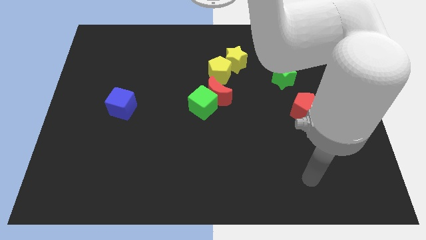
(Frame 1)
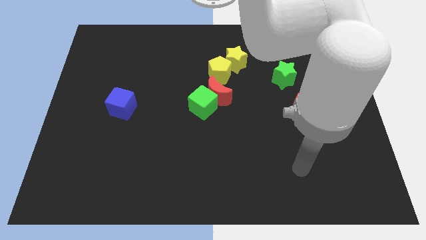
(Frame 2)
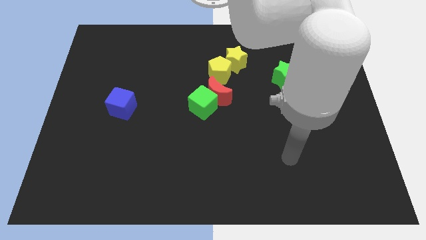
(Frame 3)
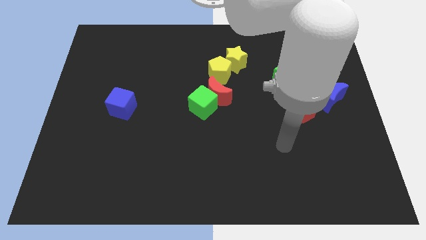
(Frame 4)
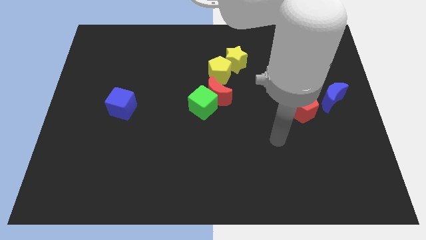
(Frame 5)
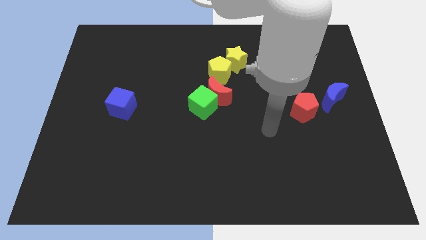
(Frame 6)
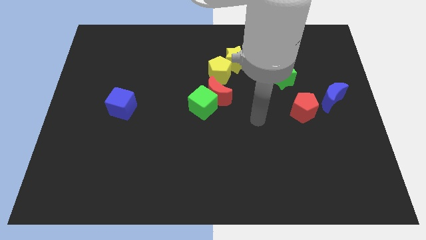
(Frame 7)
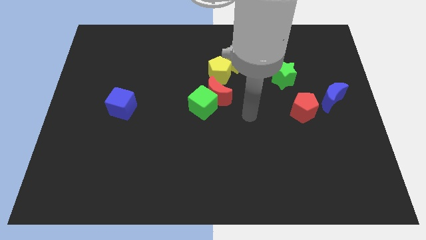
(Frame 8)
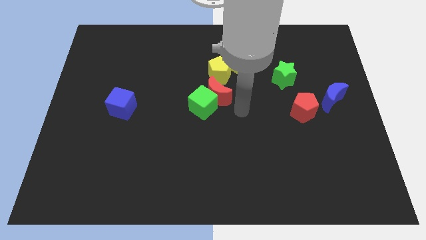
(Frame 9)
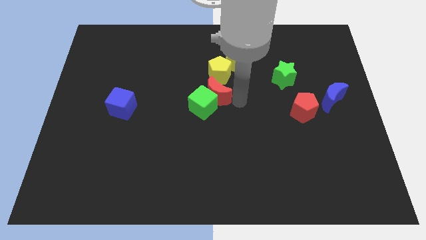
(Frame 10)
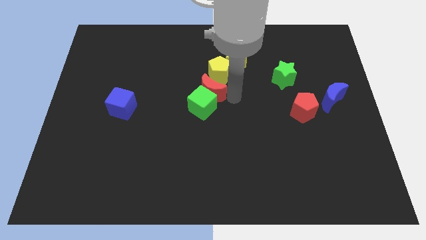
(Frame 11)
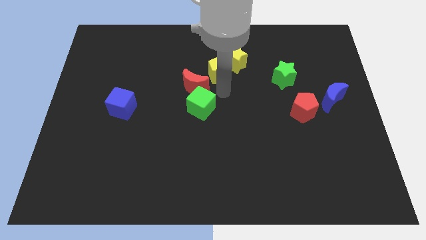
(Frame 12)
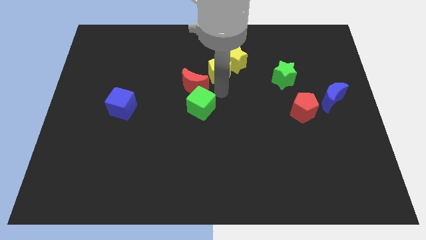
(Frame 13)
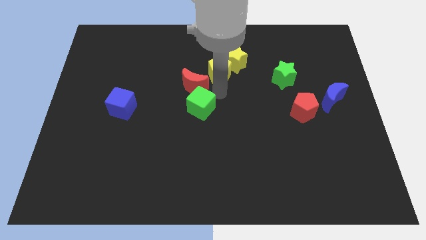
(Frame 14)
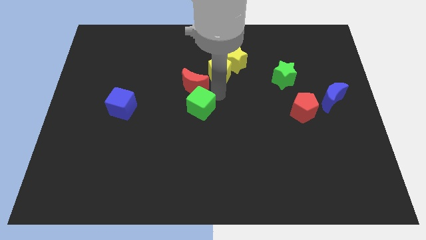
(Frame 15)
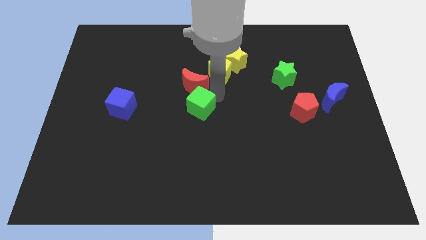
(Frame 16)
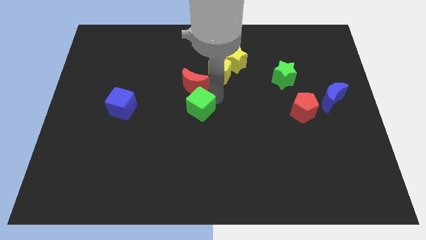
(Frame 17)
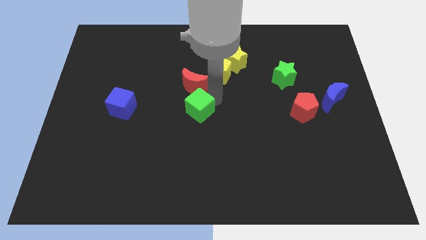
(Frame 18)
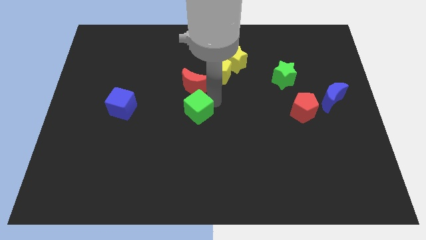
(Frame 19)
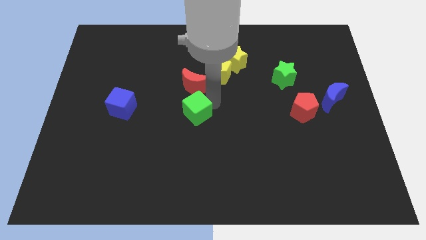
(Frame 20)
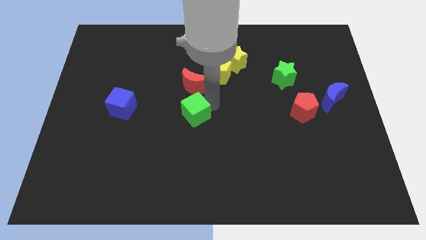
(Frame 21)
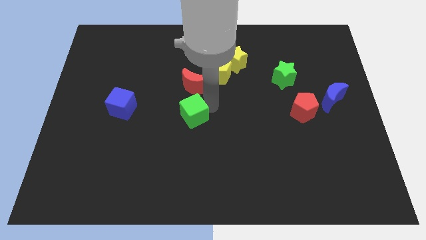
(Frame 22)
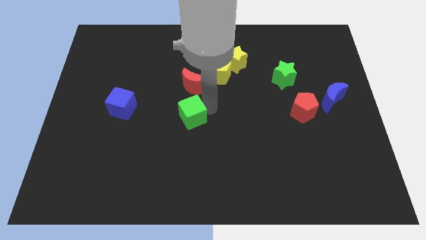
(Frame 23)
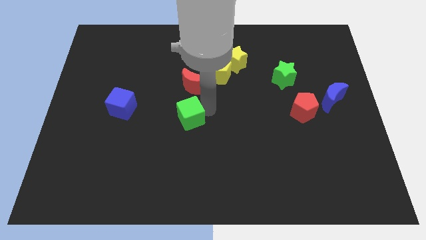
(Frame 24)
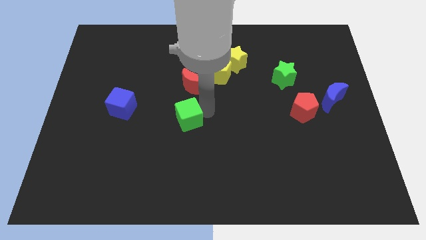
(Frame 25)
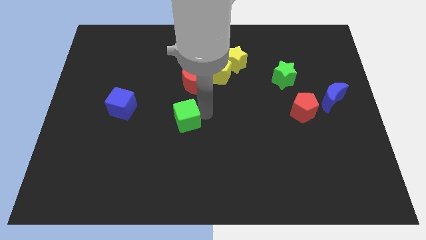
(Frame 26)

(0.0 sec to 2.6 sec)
move the green cube away from the red moon

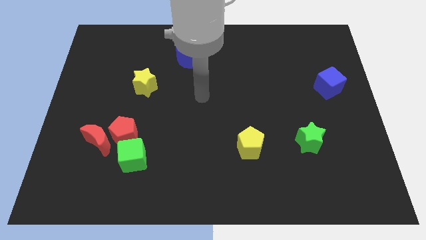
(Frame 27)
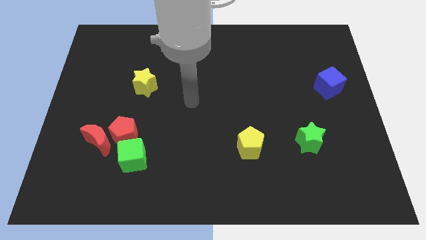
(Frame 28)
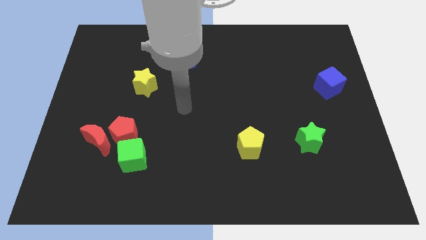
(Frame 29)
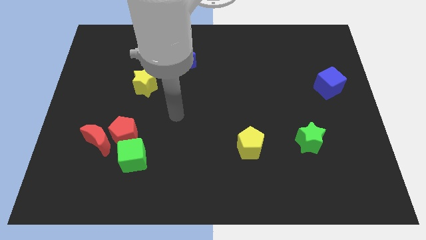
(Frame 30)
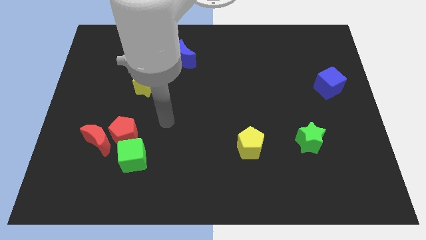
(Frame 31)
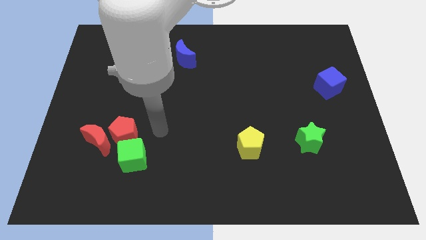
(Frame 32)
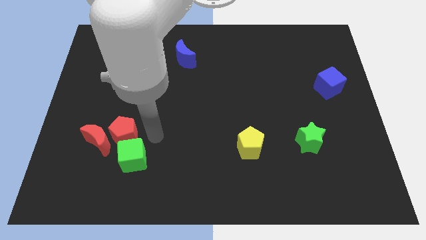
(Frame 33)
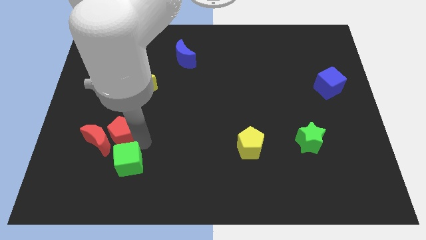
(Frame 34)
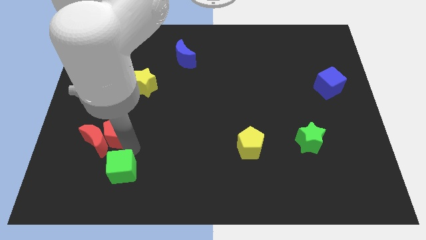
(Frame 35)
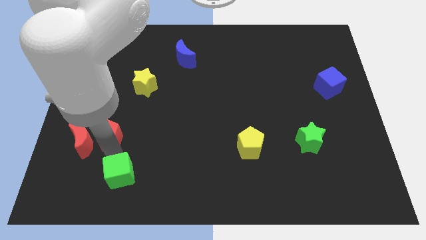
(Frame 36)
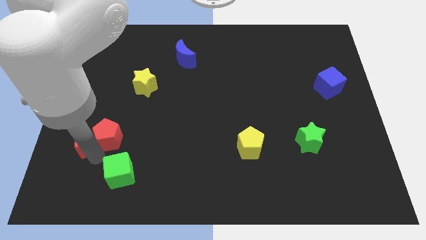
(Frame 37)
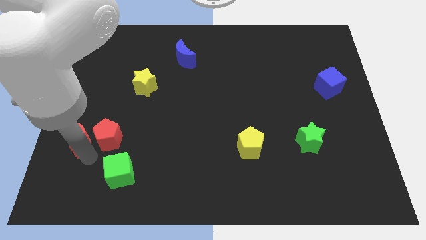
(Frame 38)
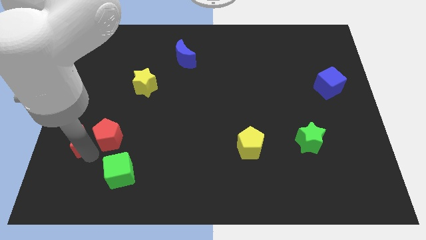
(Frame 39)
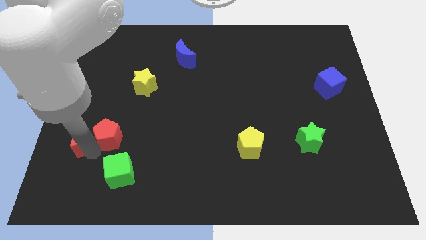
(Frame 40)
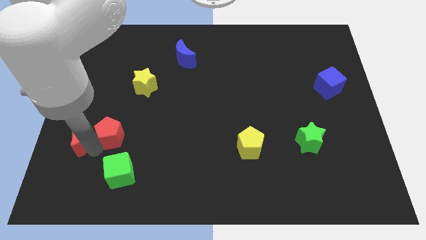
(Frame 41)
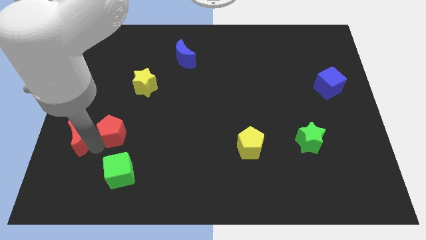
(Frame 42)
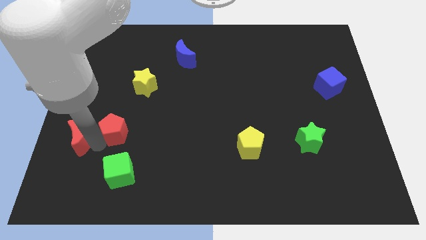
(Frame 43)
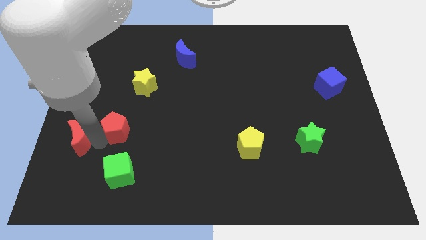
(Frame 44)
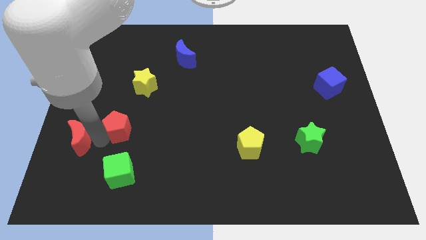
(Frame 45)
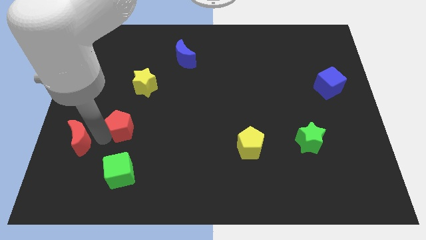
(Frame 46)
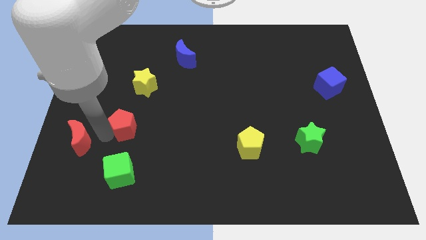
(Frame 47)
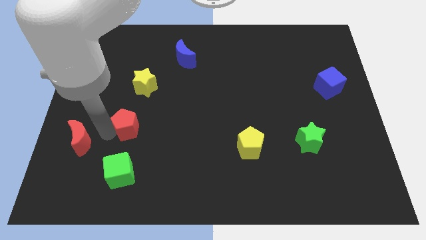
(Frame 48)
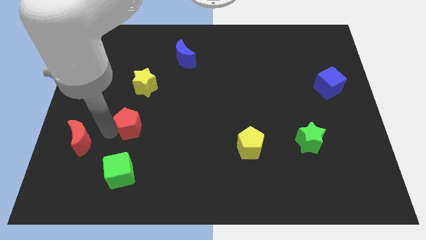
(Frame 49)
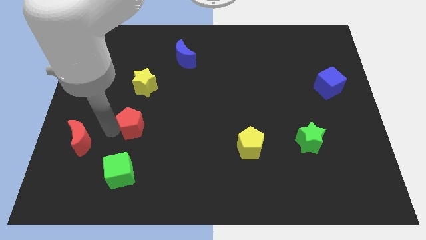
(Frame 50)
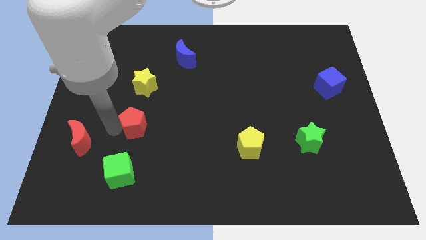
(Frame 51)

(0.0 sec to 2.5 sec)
pull the red pentagon apart from the red moon and green cube

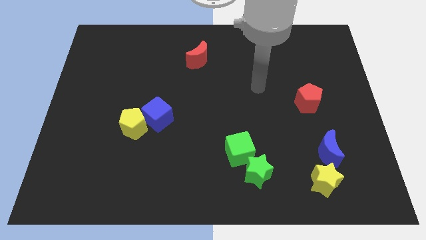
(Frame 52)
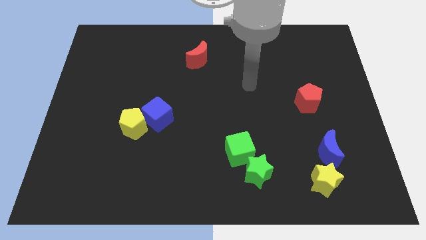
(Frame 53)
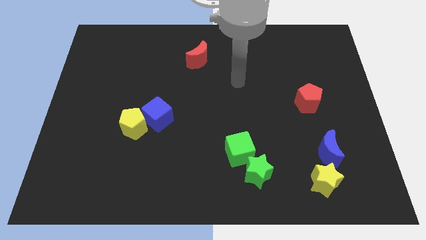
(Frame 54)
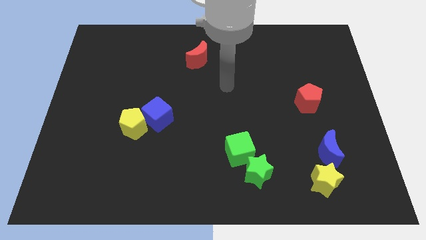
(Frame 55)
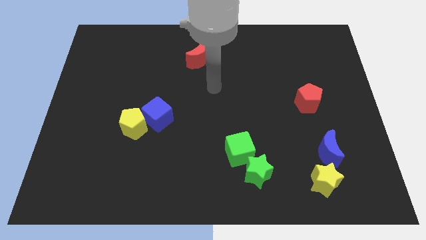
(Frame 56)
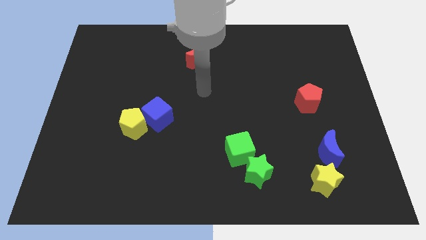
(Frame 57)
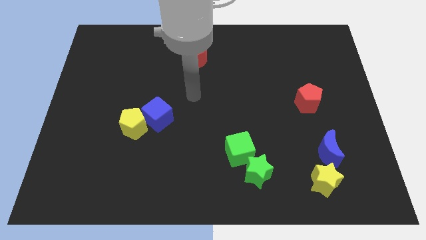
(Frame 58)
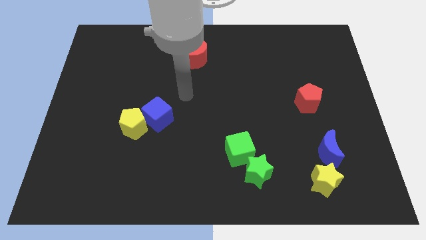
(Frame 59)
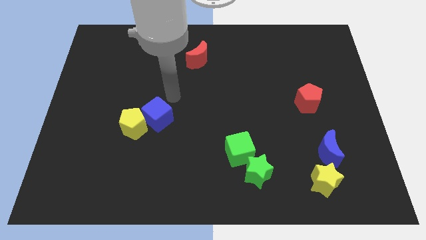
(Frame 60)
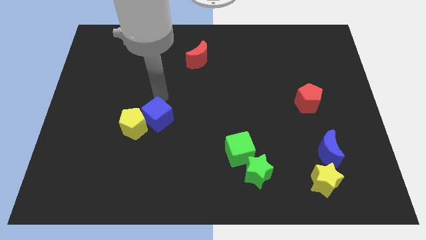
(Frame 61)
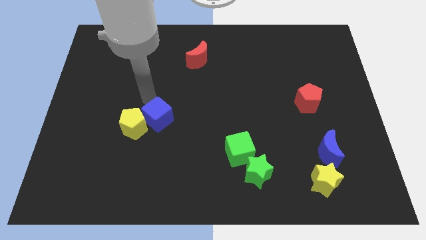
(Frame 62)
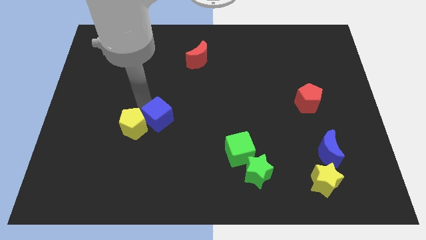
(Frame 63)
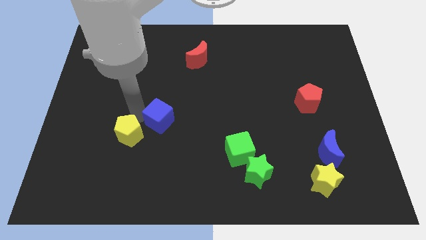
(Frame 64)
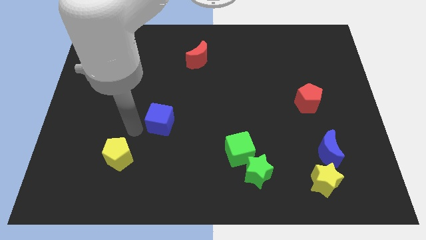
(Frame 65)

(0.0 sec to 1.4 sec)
move the blue cube away from the yellow pentagon

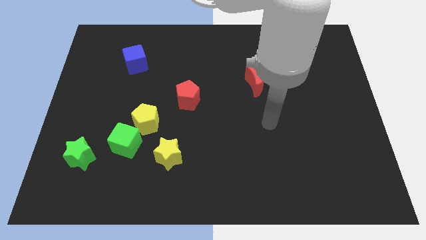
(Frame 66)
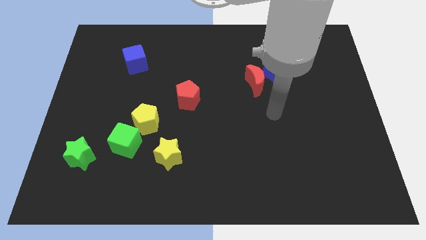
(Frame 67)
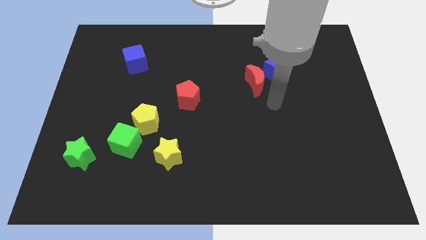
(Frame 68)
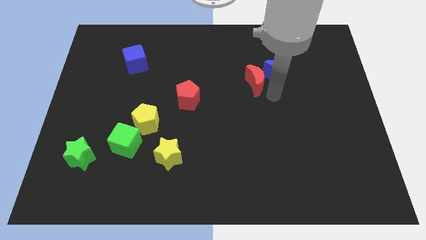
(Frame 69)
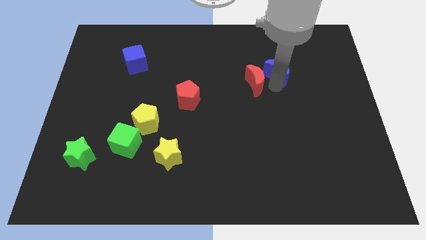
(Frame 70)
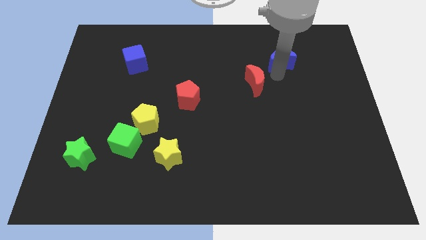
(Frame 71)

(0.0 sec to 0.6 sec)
separate the red moon from the blue moon

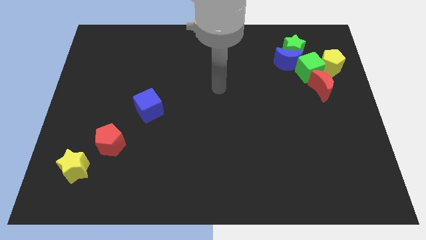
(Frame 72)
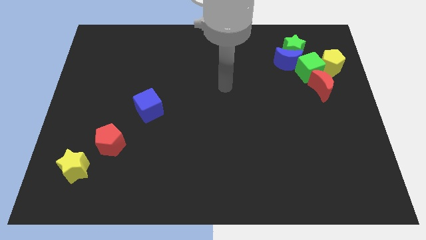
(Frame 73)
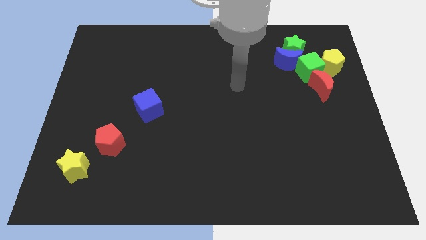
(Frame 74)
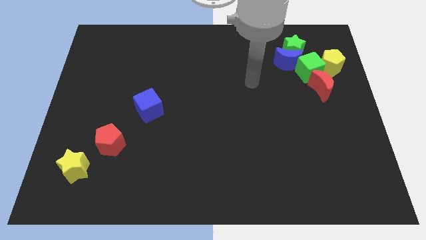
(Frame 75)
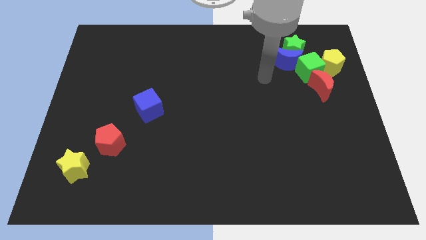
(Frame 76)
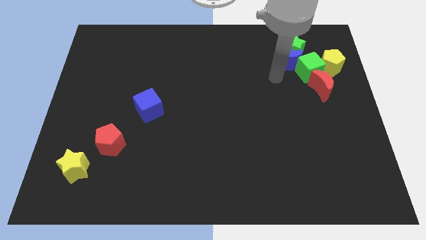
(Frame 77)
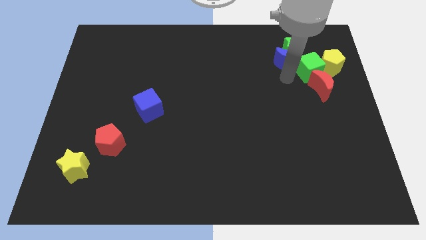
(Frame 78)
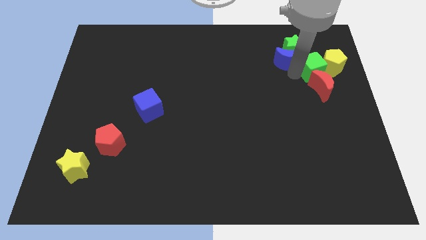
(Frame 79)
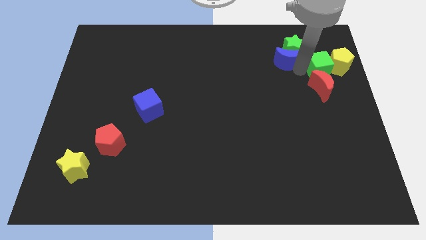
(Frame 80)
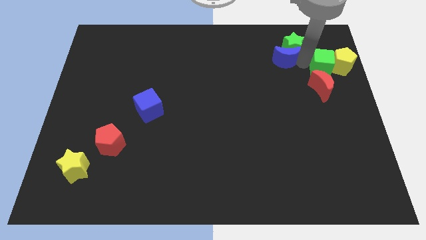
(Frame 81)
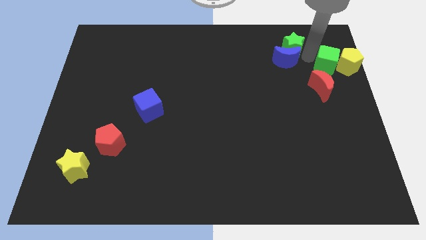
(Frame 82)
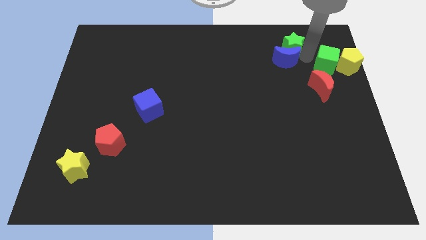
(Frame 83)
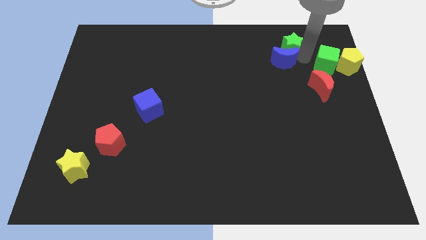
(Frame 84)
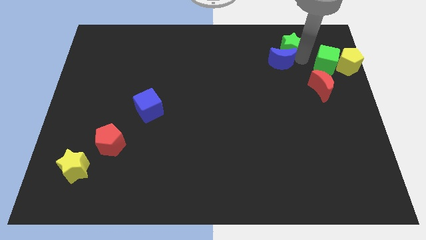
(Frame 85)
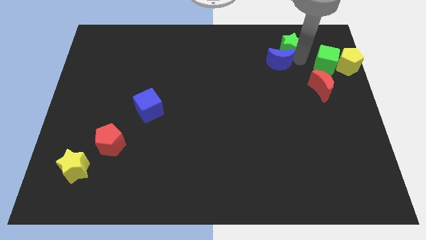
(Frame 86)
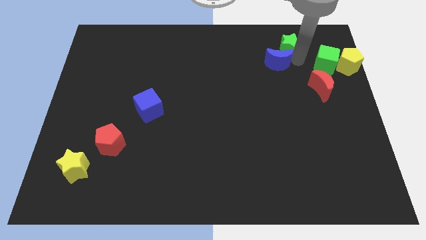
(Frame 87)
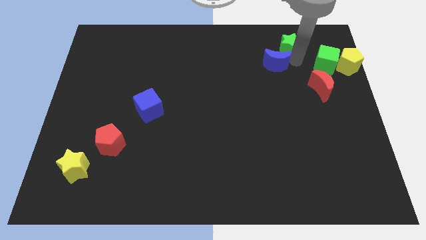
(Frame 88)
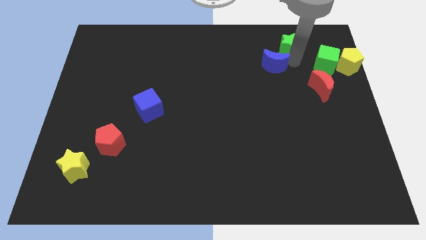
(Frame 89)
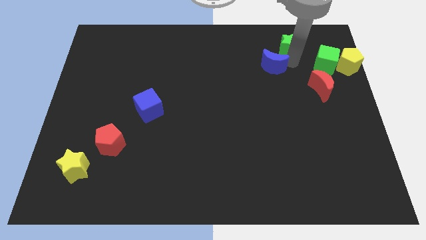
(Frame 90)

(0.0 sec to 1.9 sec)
move the blue moon away from the green star and green cube

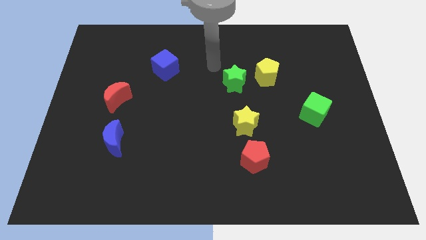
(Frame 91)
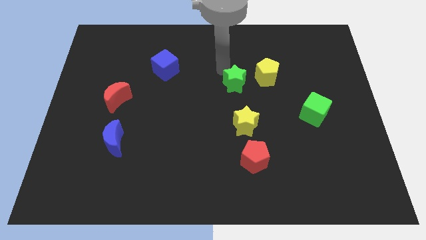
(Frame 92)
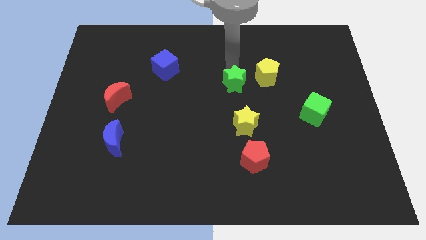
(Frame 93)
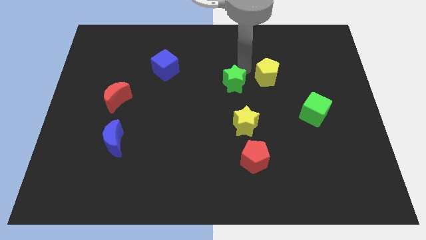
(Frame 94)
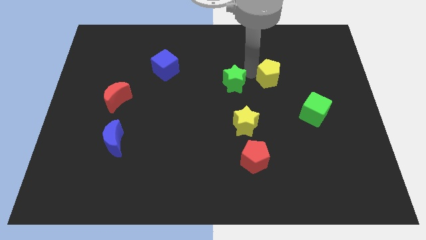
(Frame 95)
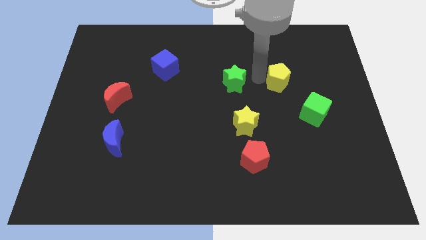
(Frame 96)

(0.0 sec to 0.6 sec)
pull the green star apart from the yellow pentagon
